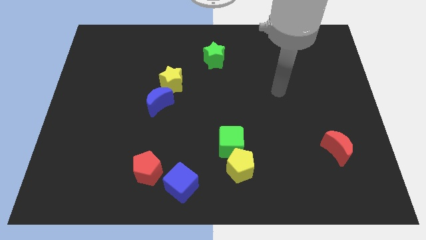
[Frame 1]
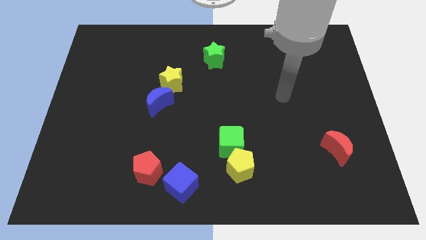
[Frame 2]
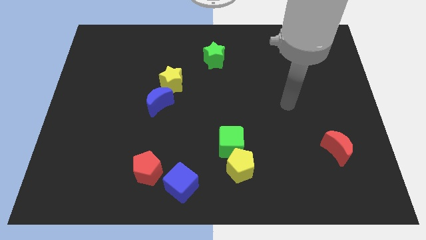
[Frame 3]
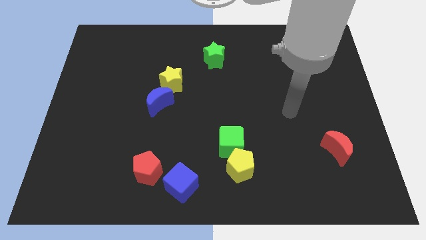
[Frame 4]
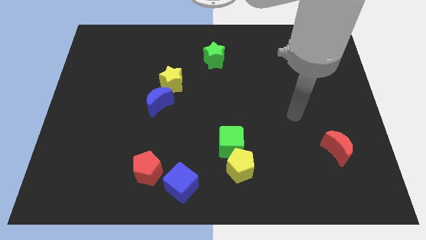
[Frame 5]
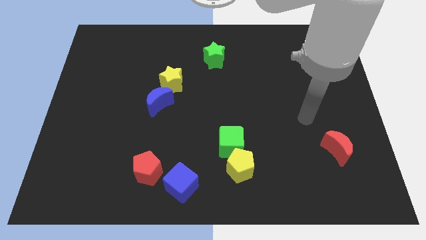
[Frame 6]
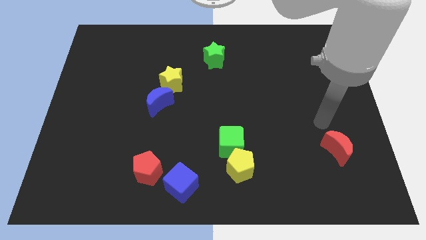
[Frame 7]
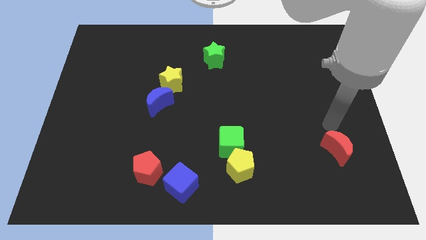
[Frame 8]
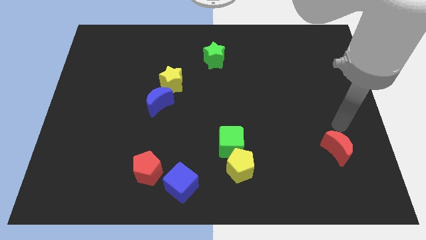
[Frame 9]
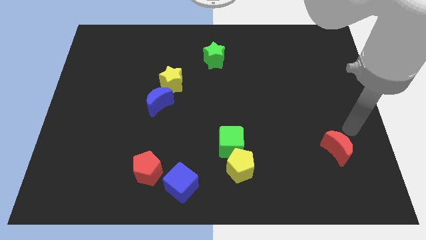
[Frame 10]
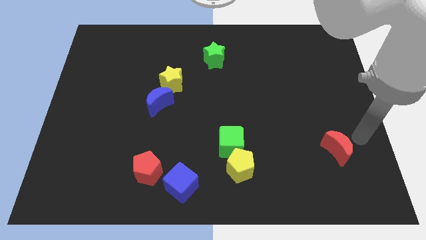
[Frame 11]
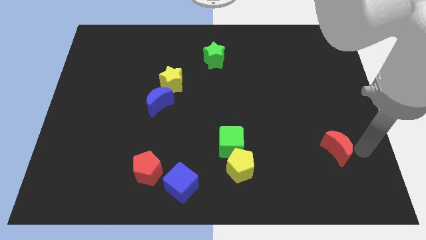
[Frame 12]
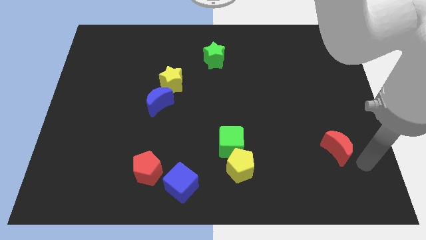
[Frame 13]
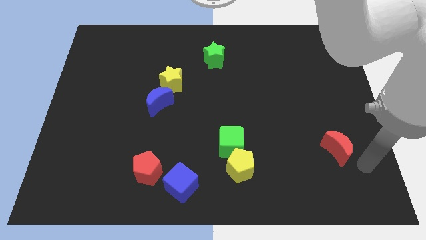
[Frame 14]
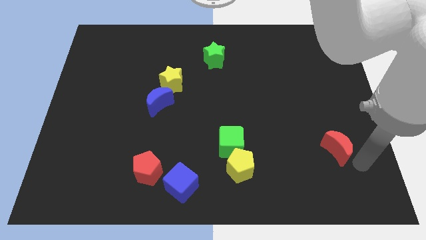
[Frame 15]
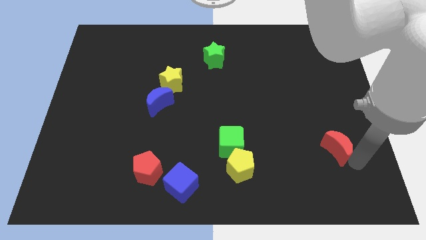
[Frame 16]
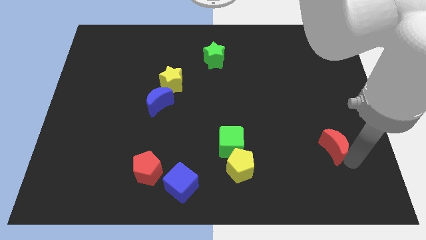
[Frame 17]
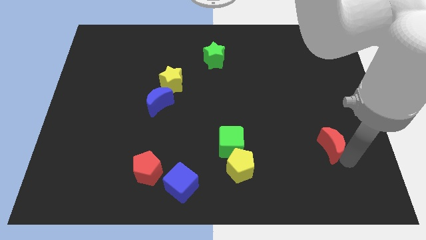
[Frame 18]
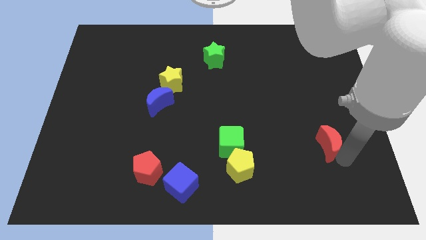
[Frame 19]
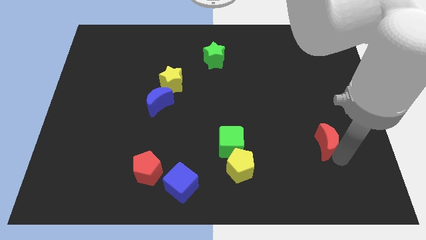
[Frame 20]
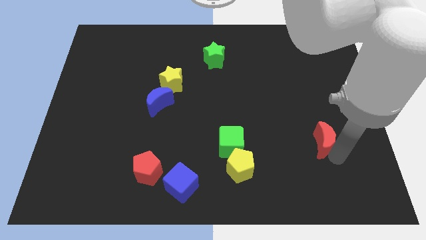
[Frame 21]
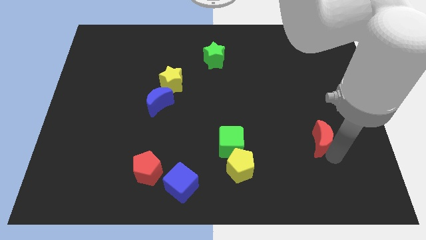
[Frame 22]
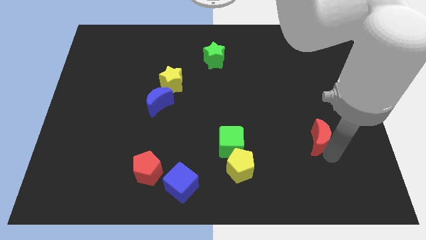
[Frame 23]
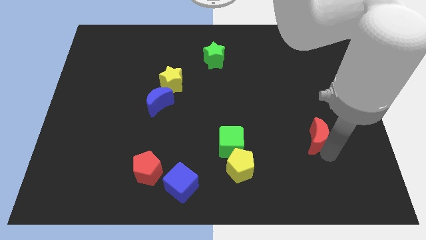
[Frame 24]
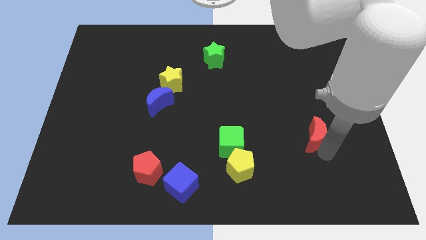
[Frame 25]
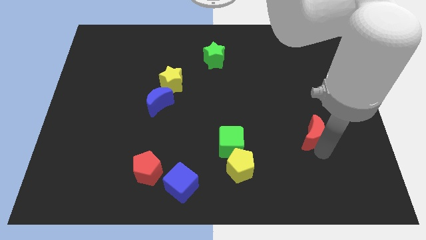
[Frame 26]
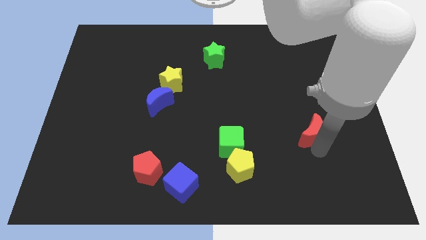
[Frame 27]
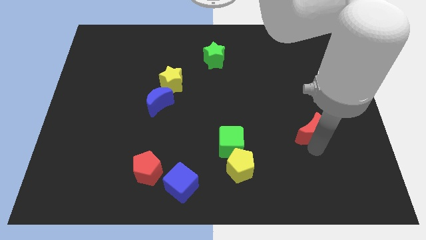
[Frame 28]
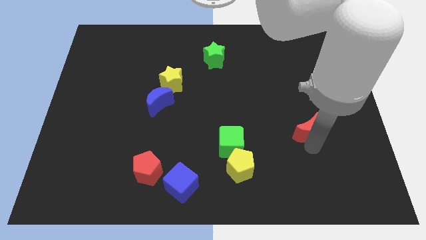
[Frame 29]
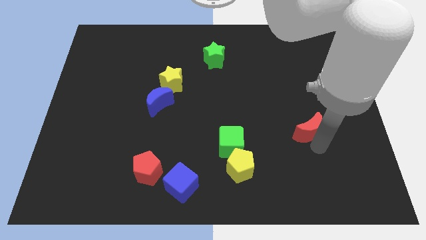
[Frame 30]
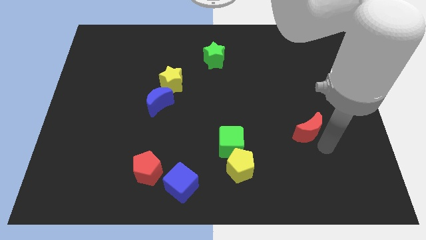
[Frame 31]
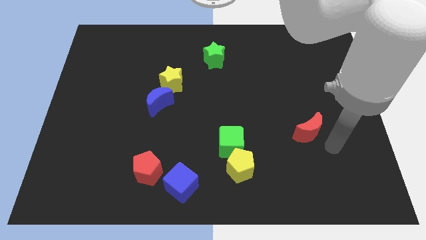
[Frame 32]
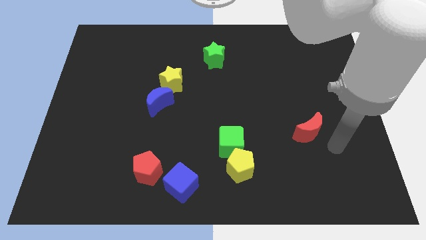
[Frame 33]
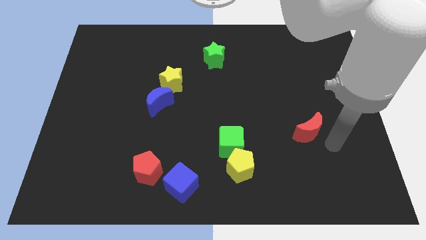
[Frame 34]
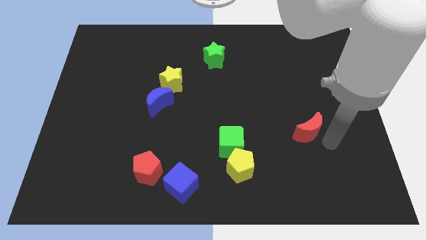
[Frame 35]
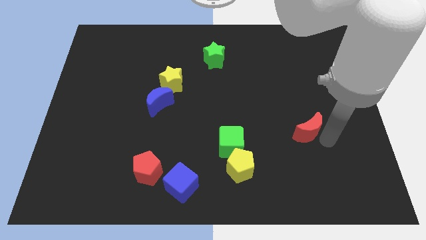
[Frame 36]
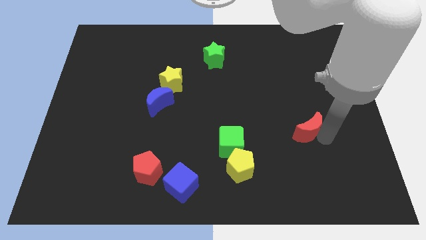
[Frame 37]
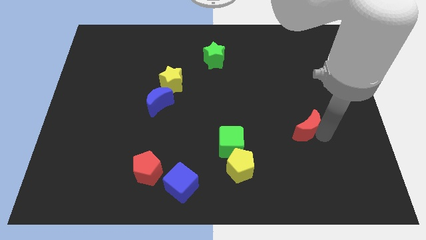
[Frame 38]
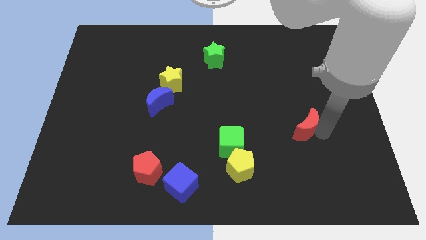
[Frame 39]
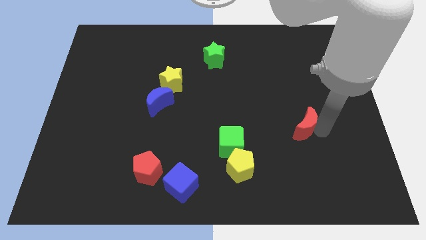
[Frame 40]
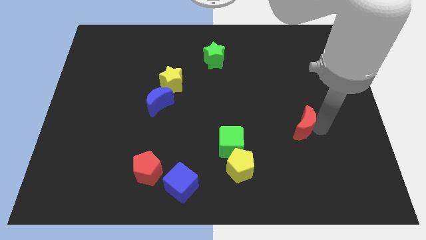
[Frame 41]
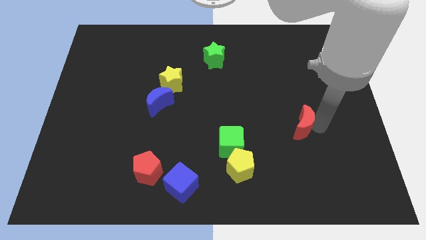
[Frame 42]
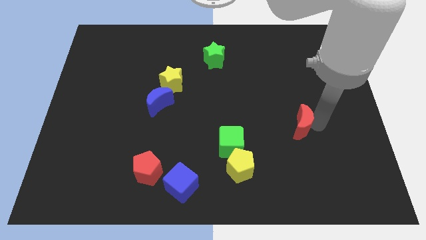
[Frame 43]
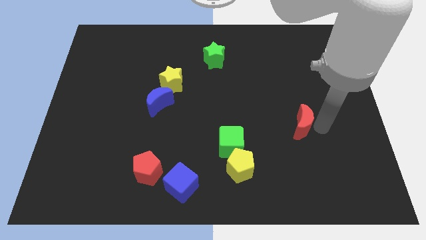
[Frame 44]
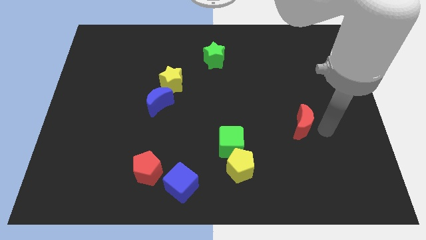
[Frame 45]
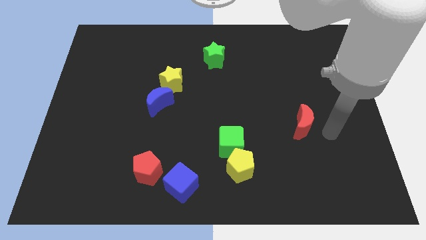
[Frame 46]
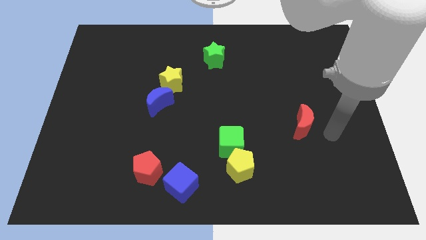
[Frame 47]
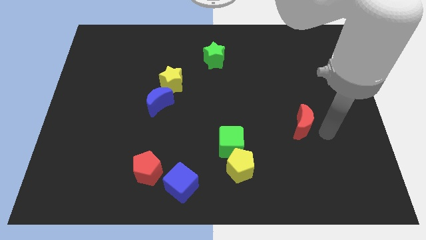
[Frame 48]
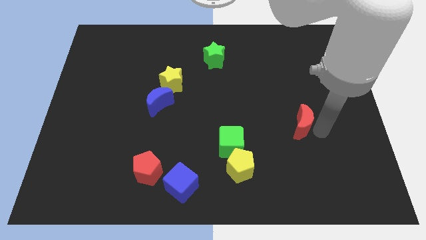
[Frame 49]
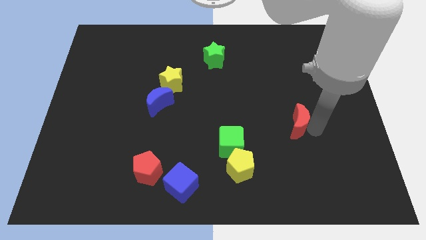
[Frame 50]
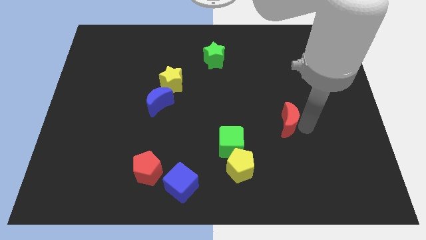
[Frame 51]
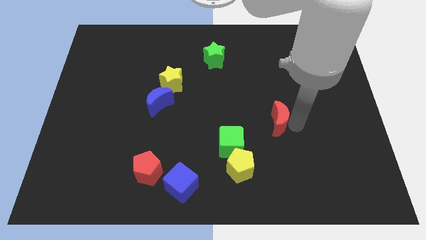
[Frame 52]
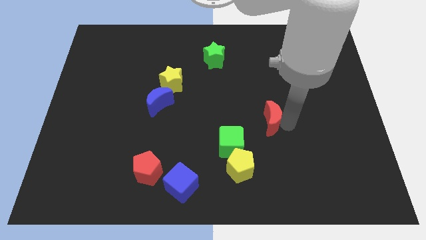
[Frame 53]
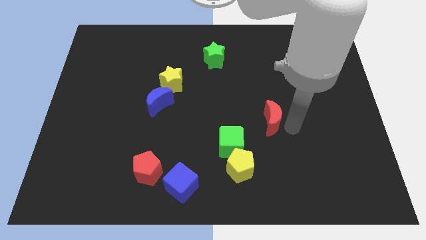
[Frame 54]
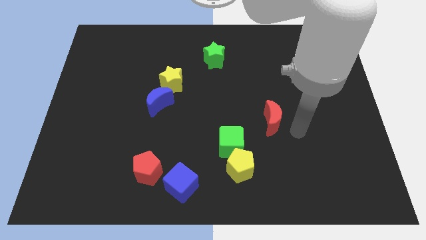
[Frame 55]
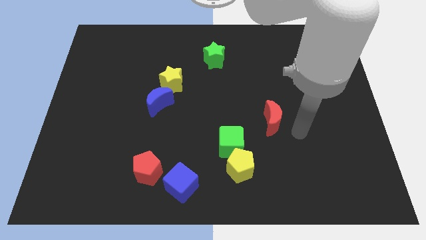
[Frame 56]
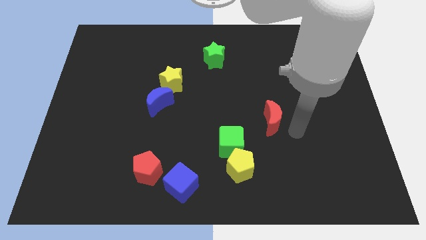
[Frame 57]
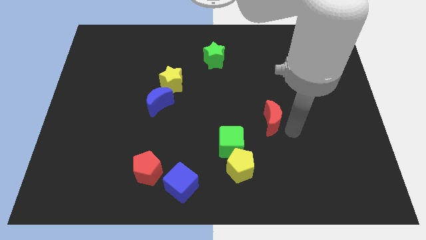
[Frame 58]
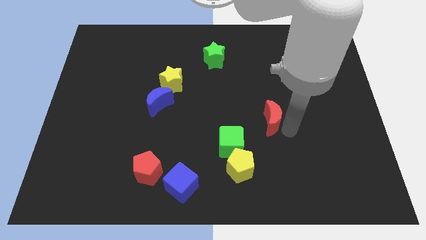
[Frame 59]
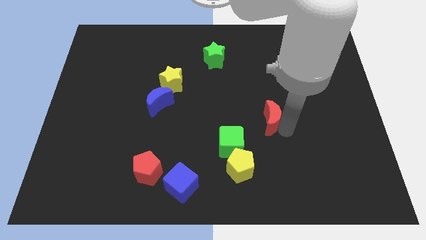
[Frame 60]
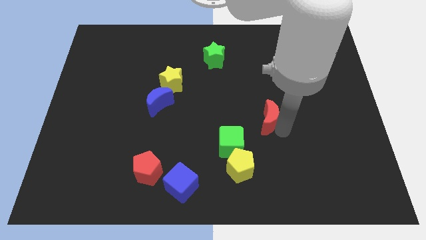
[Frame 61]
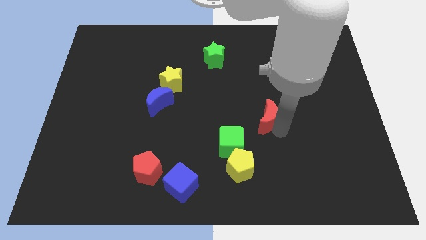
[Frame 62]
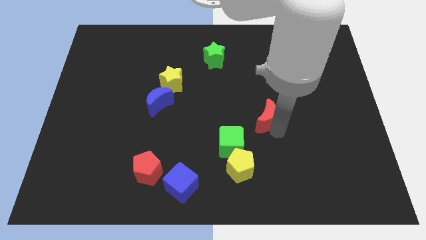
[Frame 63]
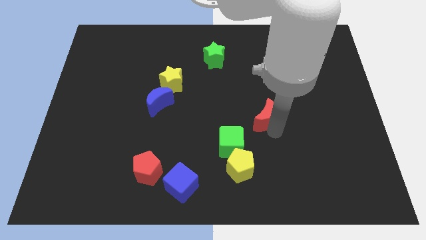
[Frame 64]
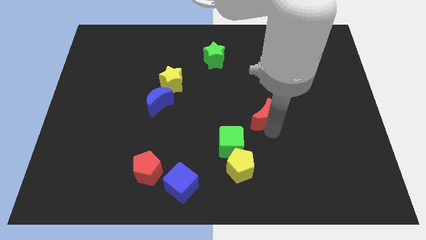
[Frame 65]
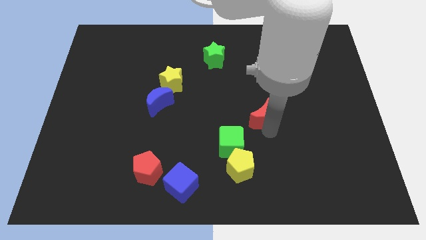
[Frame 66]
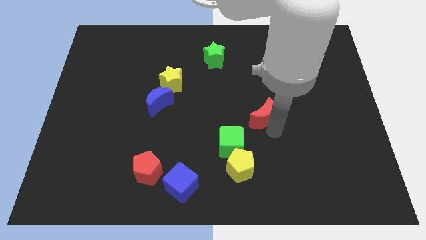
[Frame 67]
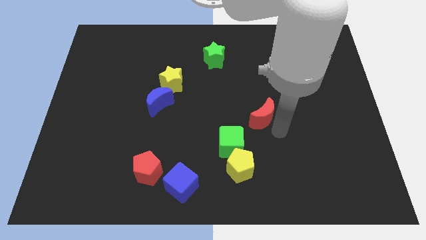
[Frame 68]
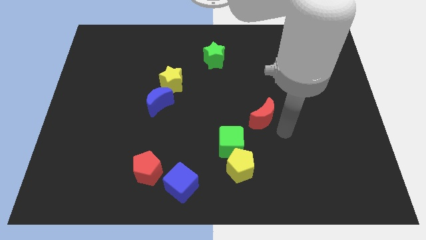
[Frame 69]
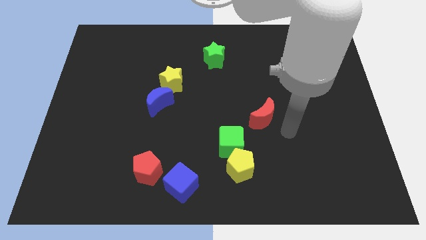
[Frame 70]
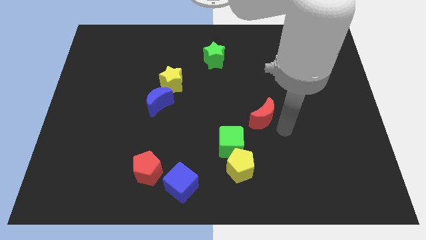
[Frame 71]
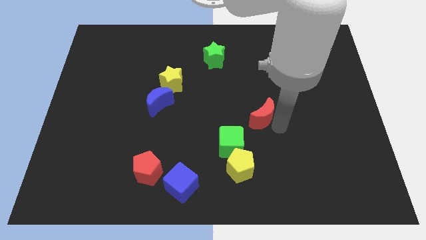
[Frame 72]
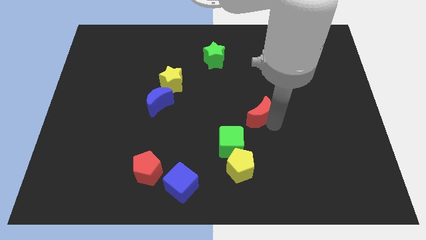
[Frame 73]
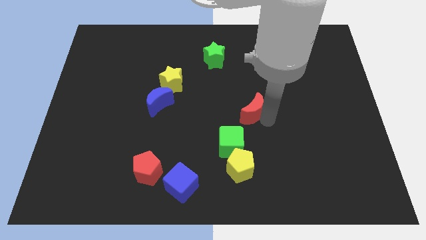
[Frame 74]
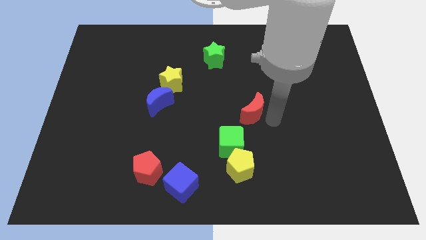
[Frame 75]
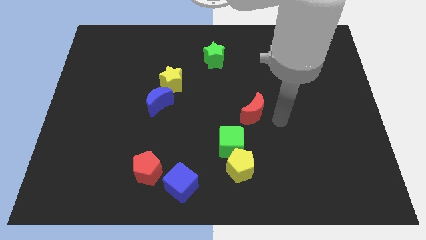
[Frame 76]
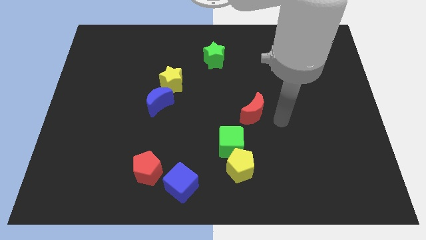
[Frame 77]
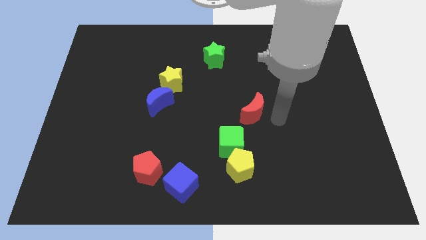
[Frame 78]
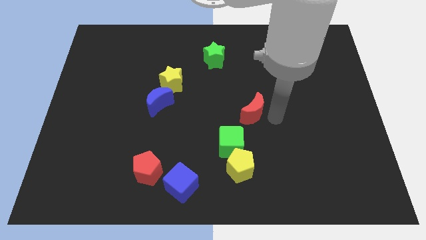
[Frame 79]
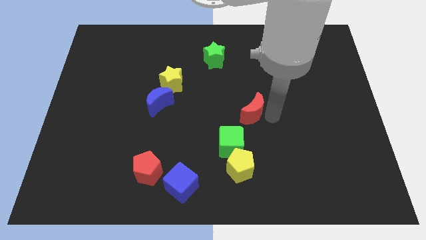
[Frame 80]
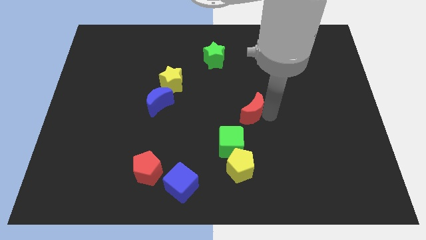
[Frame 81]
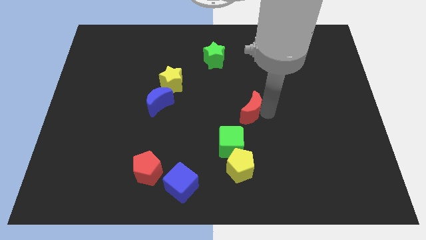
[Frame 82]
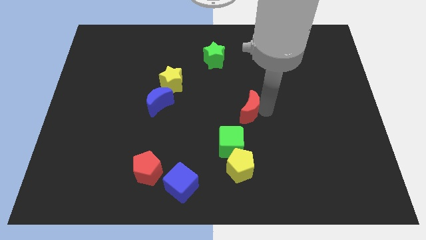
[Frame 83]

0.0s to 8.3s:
put the red moon to the top side of the green cube
